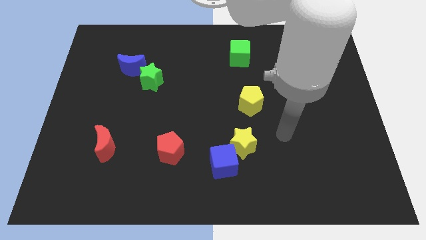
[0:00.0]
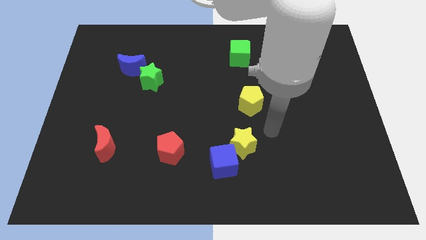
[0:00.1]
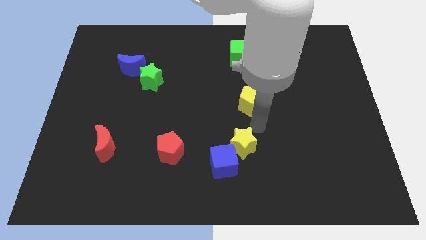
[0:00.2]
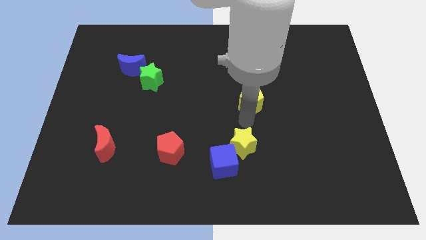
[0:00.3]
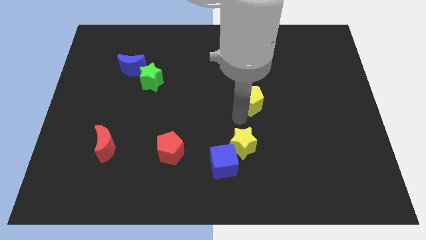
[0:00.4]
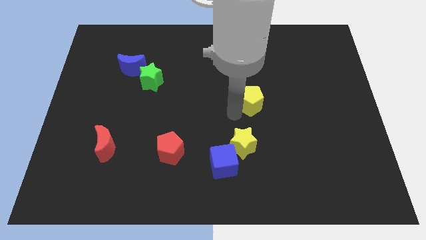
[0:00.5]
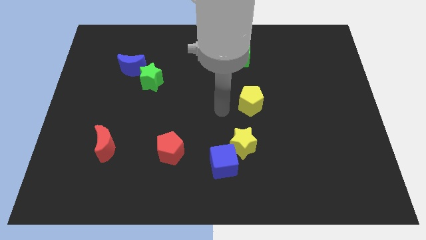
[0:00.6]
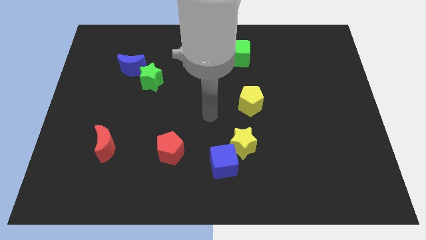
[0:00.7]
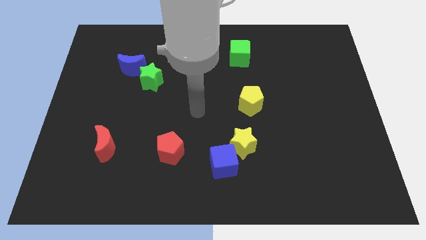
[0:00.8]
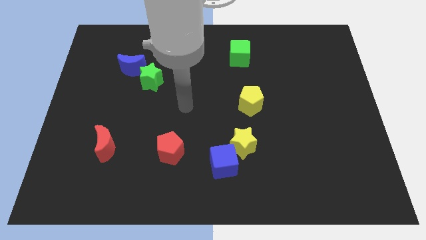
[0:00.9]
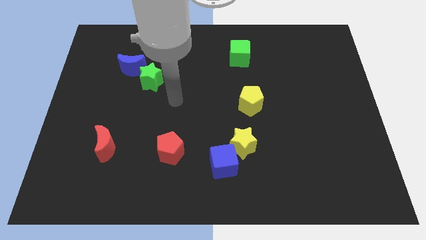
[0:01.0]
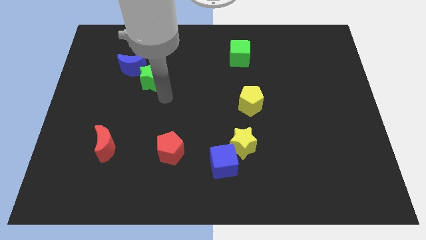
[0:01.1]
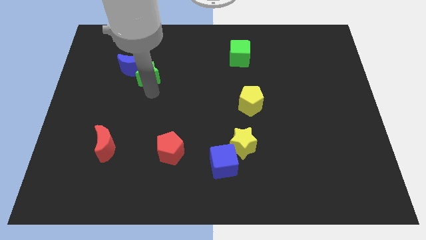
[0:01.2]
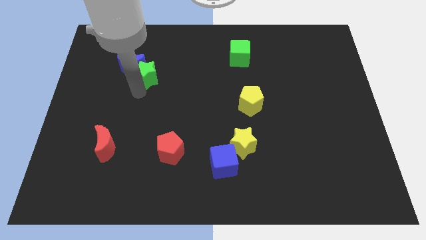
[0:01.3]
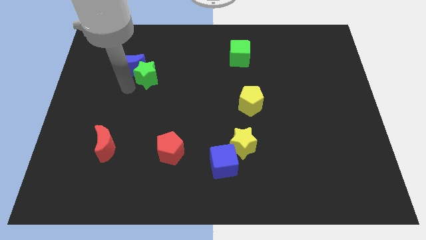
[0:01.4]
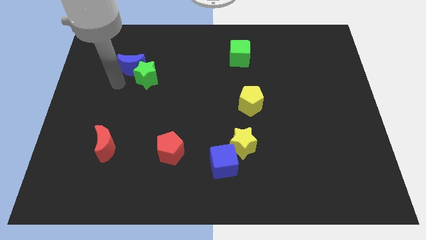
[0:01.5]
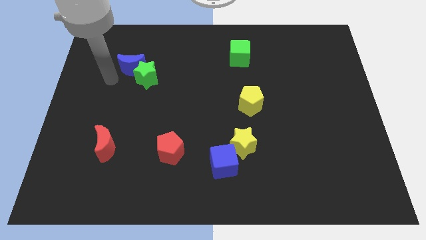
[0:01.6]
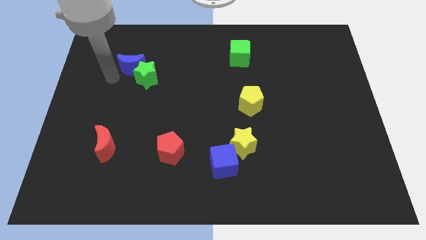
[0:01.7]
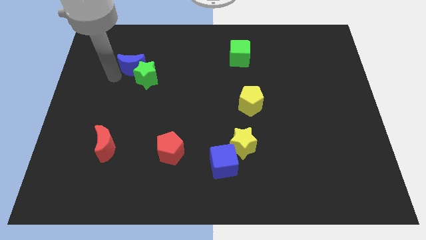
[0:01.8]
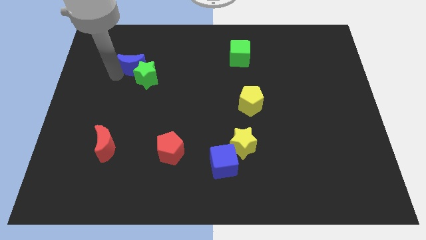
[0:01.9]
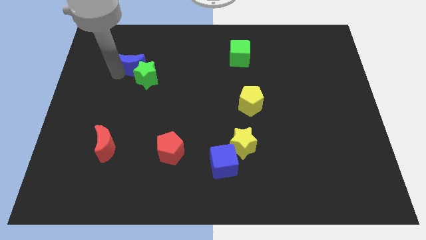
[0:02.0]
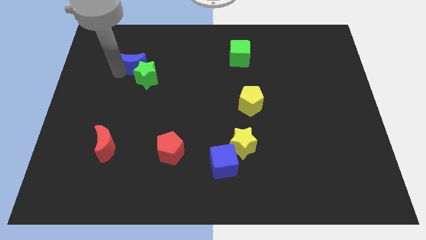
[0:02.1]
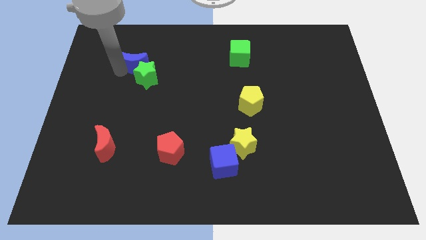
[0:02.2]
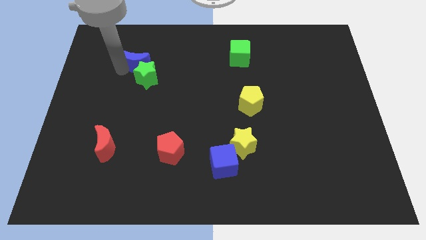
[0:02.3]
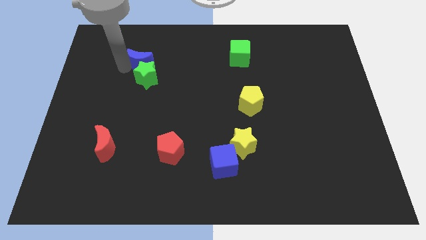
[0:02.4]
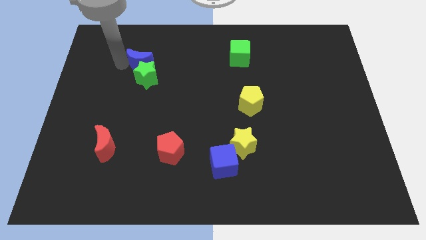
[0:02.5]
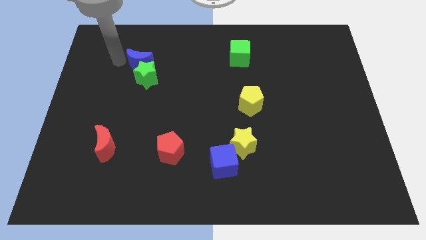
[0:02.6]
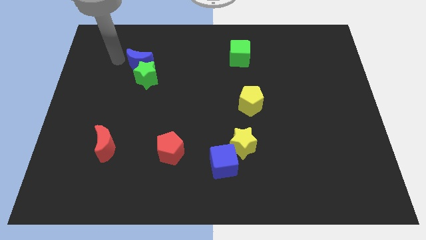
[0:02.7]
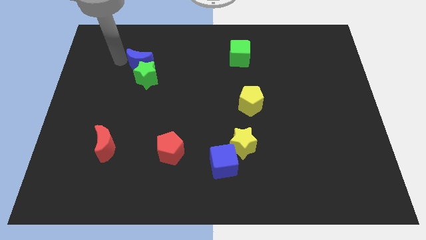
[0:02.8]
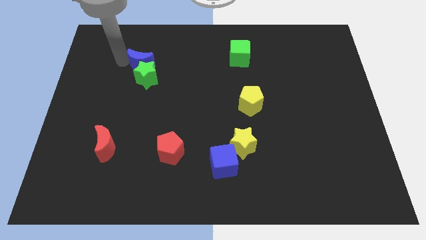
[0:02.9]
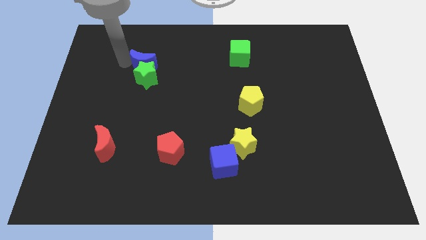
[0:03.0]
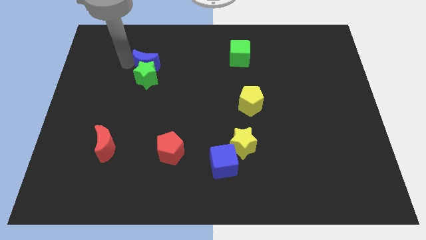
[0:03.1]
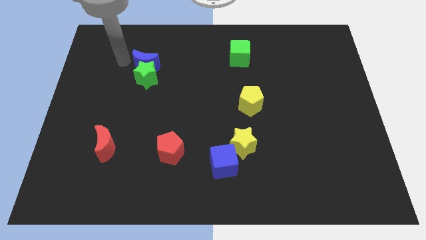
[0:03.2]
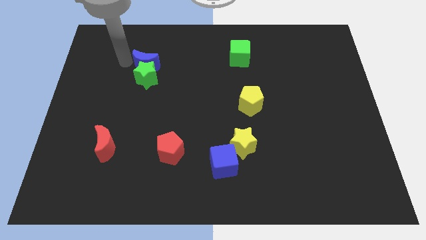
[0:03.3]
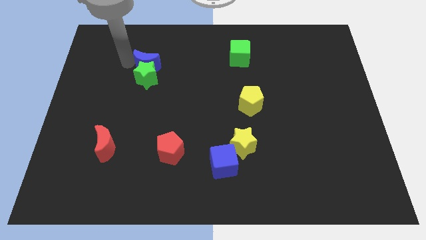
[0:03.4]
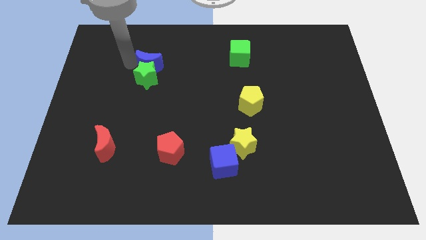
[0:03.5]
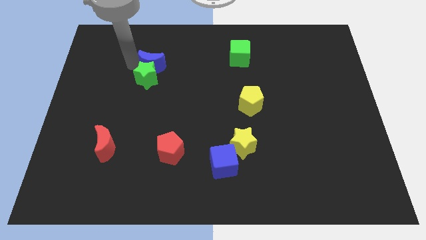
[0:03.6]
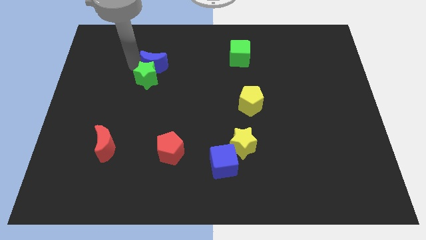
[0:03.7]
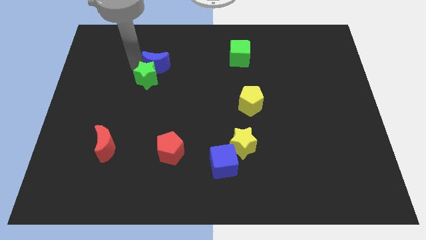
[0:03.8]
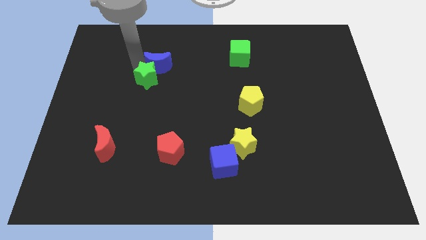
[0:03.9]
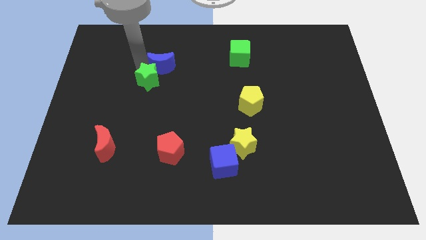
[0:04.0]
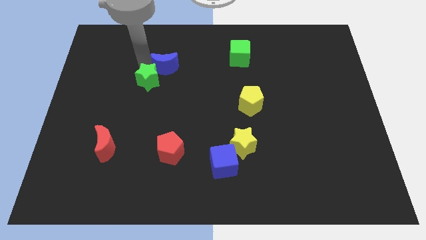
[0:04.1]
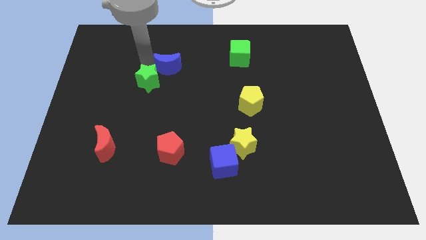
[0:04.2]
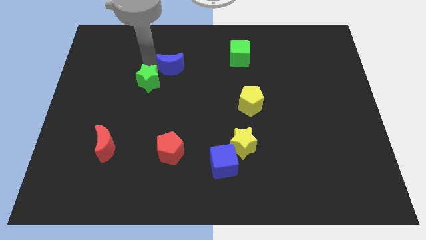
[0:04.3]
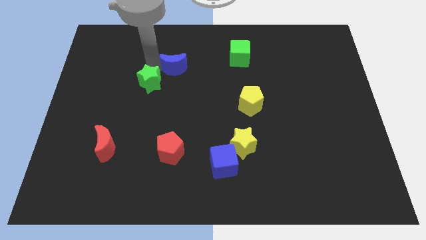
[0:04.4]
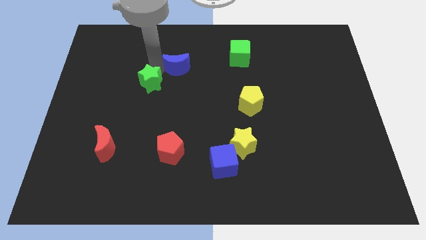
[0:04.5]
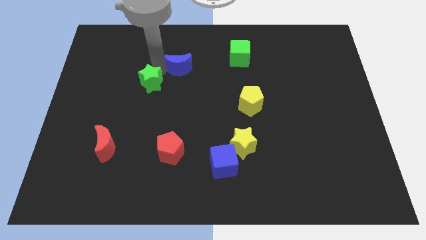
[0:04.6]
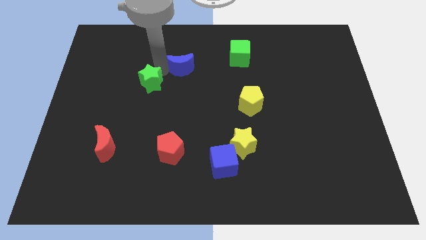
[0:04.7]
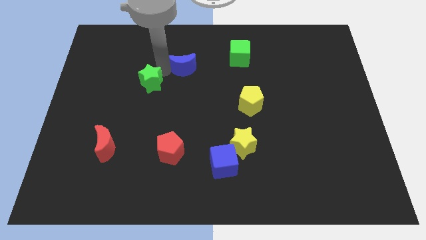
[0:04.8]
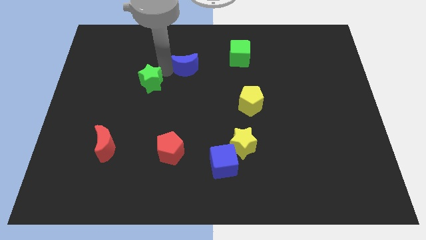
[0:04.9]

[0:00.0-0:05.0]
slide the blue moon to the center of the board

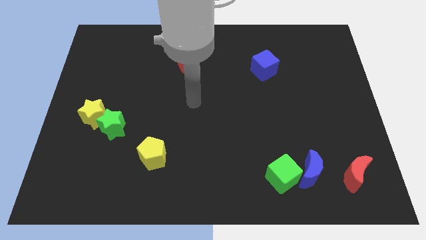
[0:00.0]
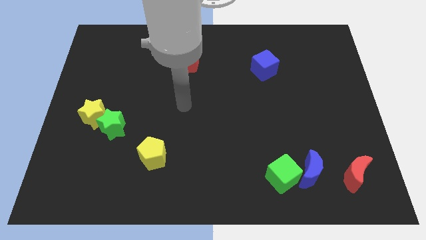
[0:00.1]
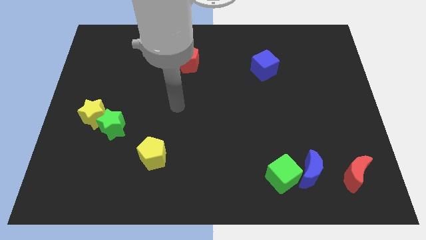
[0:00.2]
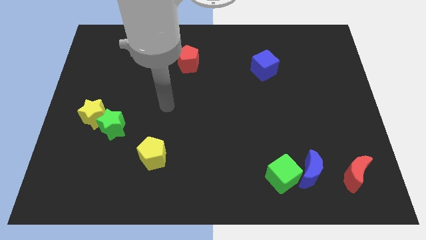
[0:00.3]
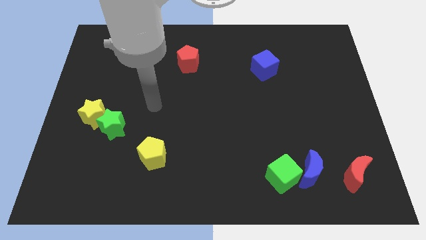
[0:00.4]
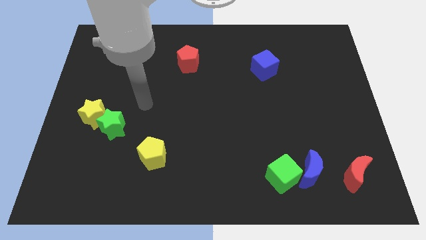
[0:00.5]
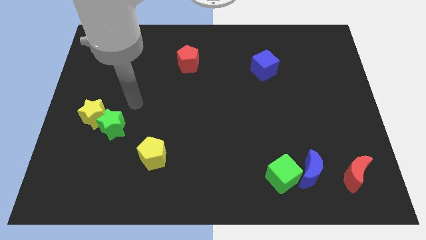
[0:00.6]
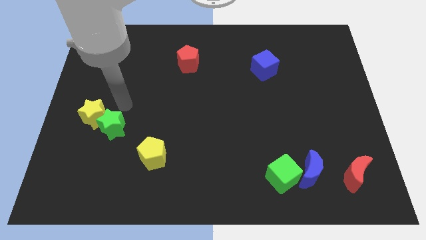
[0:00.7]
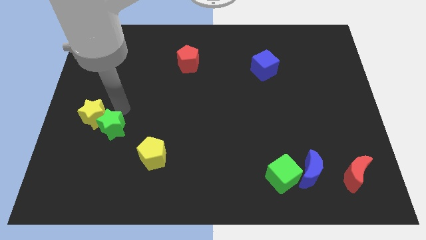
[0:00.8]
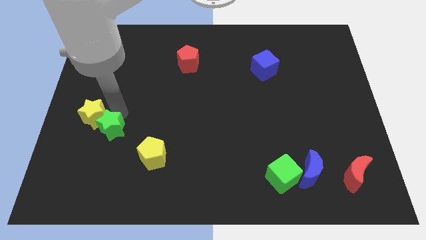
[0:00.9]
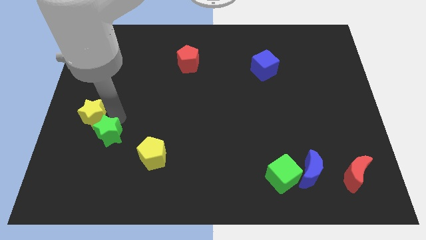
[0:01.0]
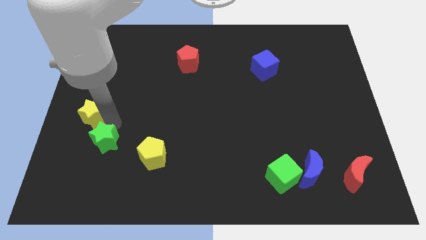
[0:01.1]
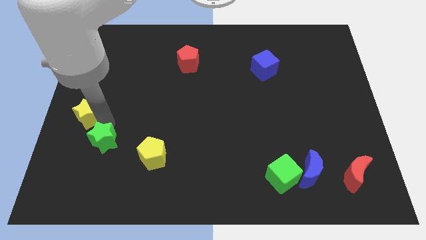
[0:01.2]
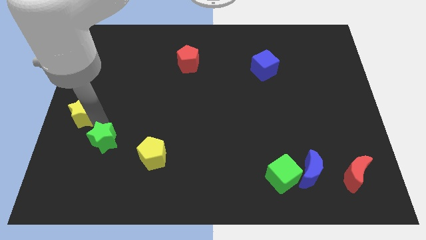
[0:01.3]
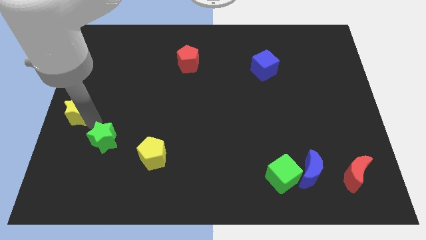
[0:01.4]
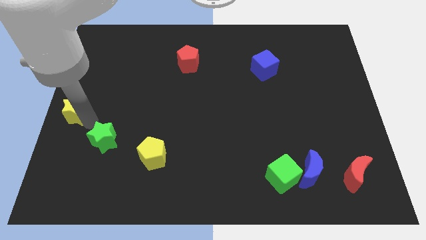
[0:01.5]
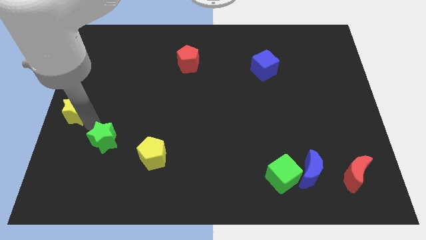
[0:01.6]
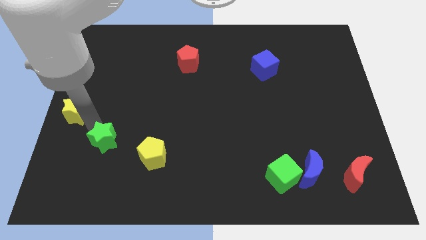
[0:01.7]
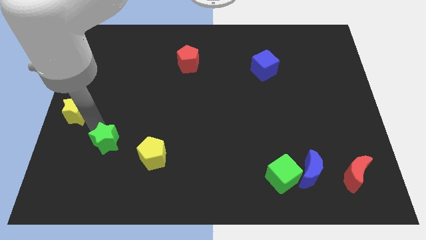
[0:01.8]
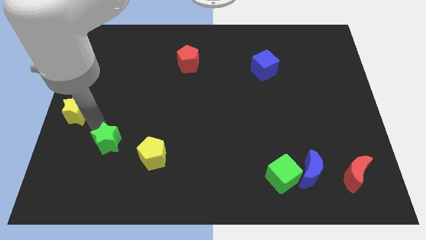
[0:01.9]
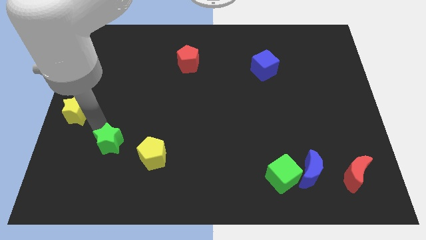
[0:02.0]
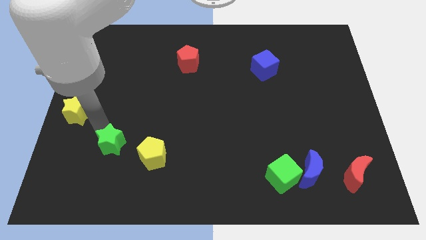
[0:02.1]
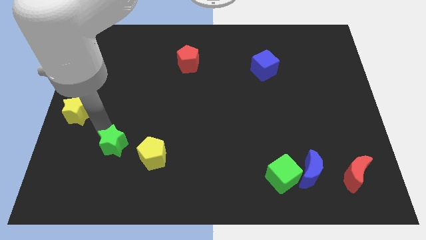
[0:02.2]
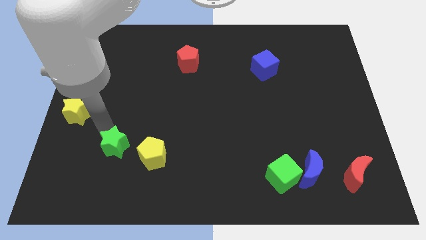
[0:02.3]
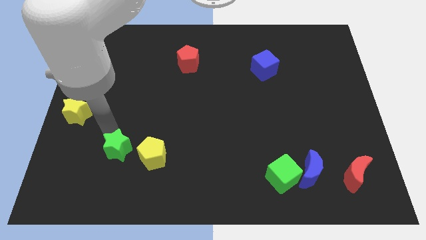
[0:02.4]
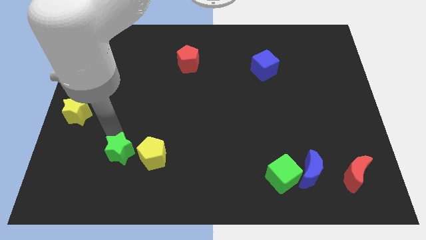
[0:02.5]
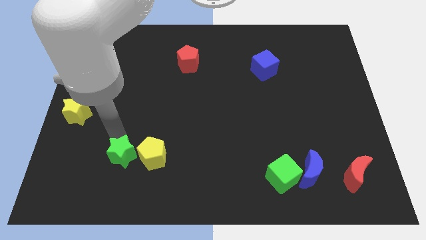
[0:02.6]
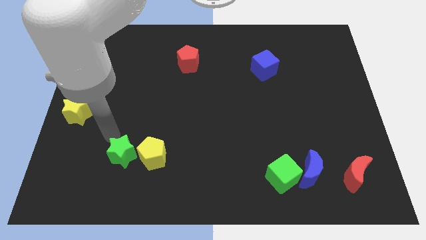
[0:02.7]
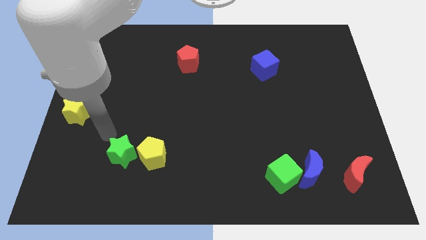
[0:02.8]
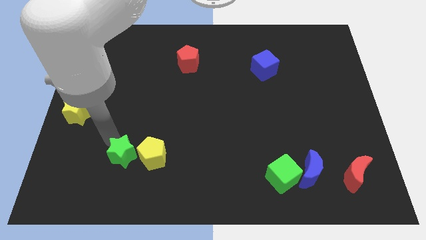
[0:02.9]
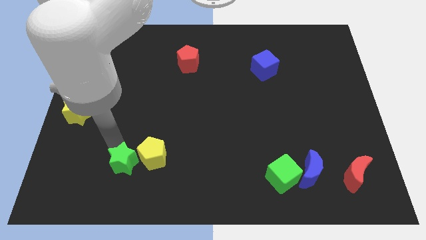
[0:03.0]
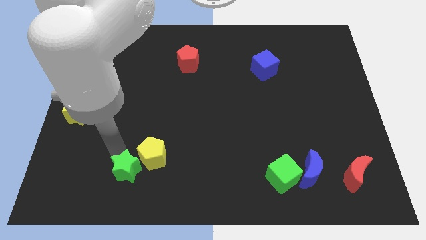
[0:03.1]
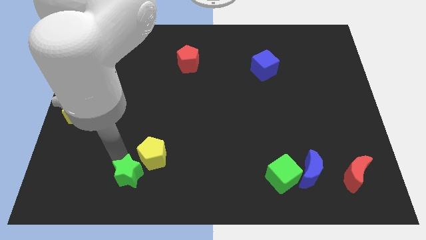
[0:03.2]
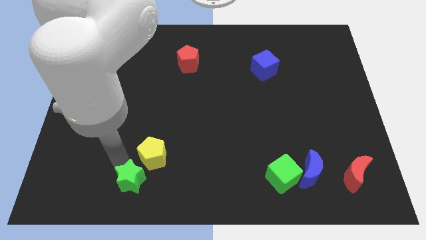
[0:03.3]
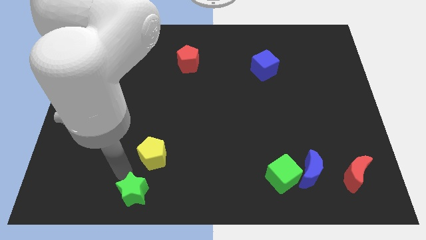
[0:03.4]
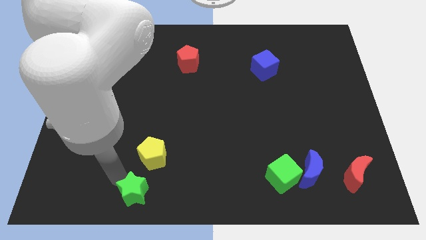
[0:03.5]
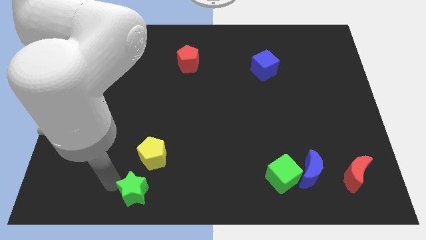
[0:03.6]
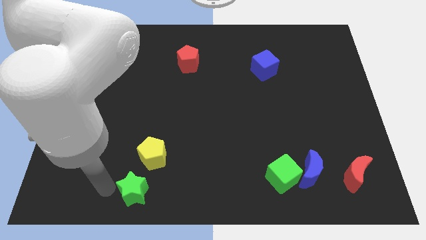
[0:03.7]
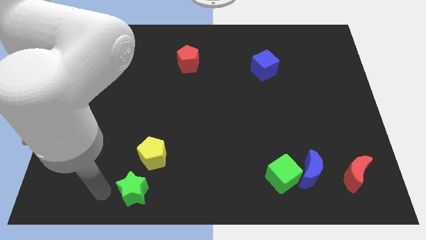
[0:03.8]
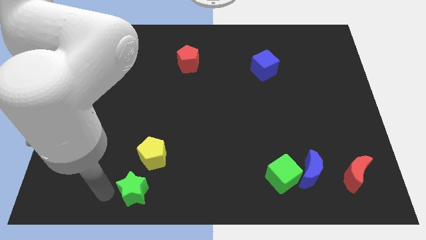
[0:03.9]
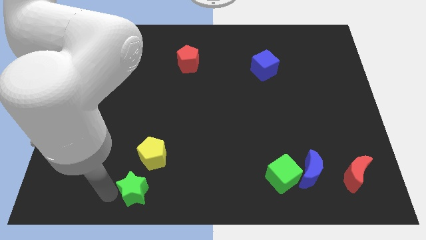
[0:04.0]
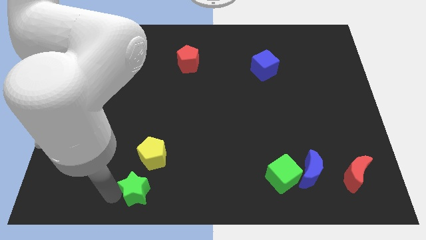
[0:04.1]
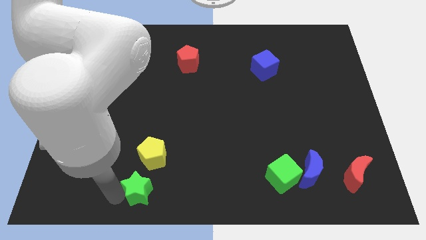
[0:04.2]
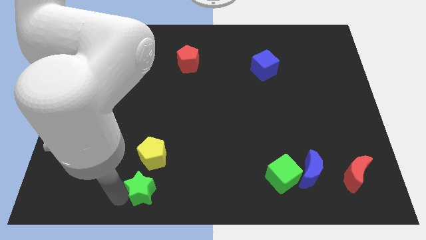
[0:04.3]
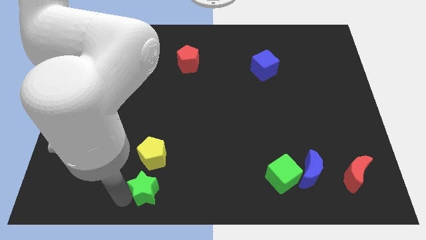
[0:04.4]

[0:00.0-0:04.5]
slide the green star to the bottom
